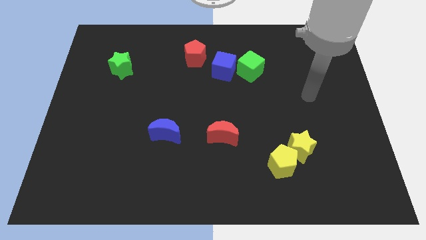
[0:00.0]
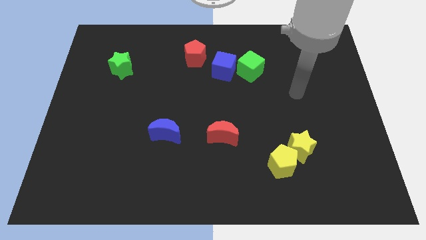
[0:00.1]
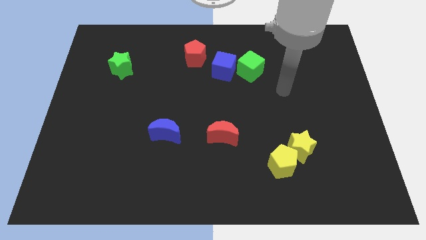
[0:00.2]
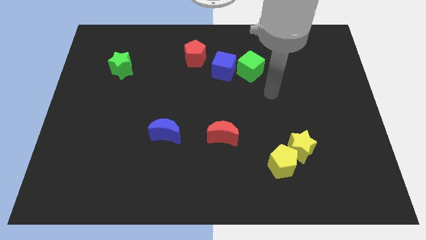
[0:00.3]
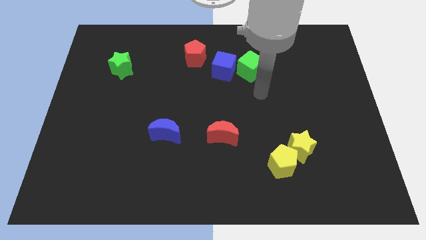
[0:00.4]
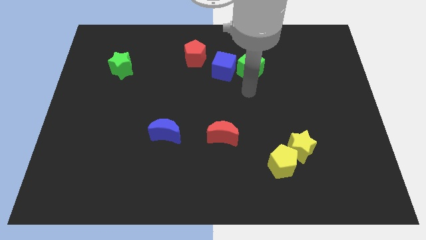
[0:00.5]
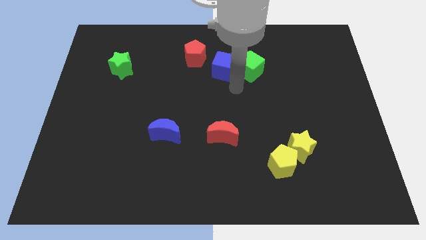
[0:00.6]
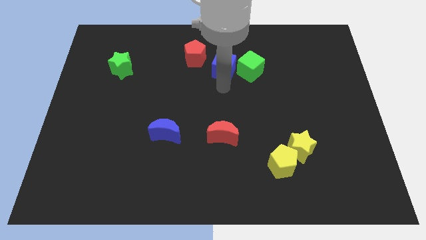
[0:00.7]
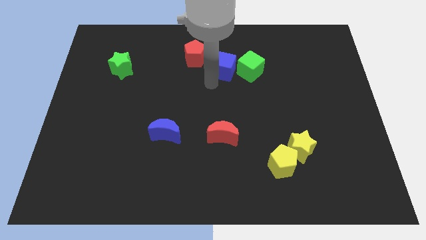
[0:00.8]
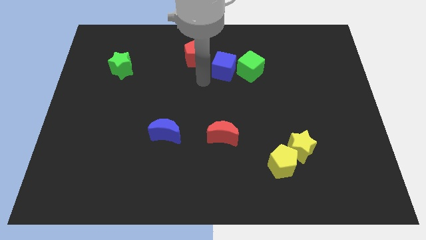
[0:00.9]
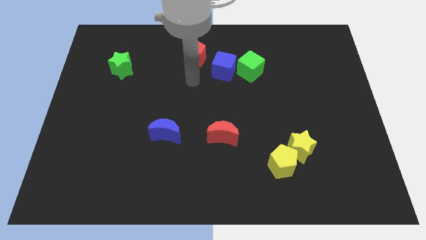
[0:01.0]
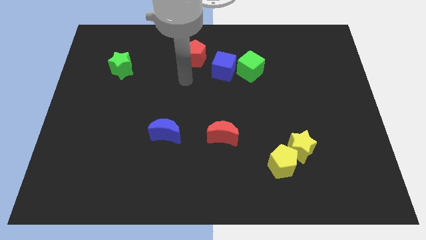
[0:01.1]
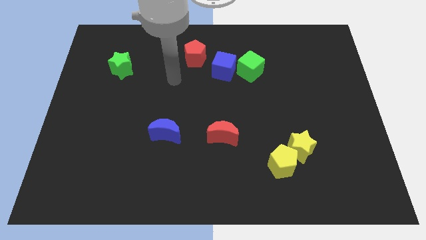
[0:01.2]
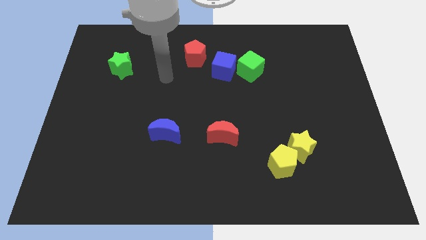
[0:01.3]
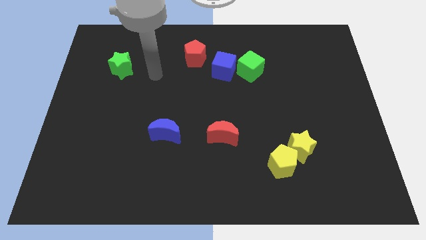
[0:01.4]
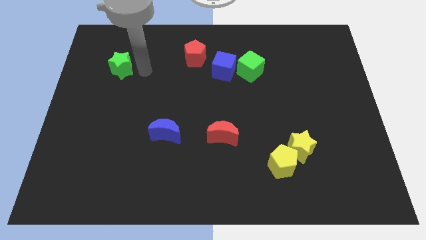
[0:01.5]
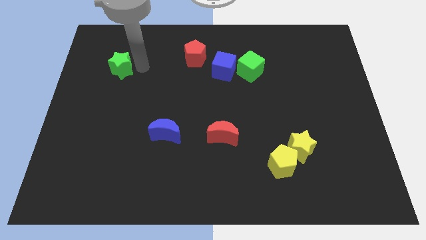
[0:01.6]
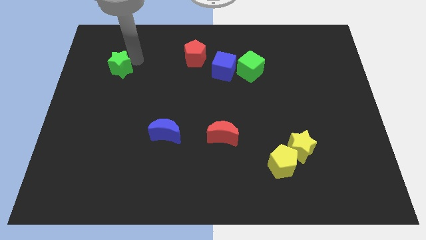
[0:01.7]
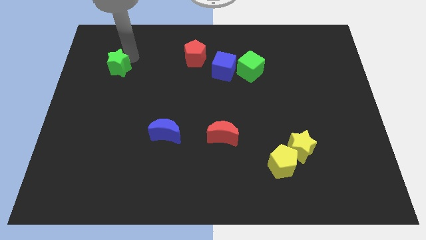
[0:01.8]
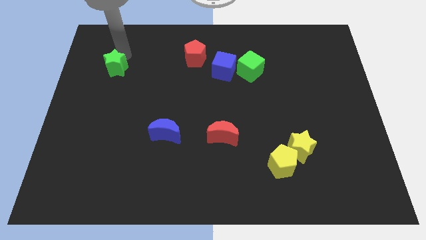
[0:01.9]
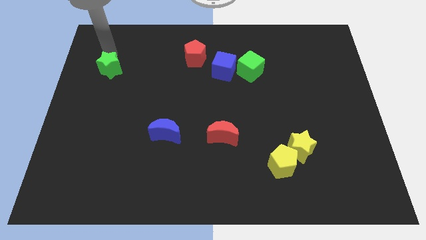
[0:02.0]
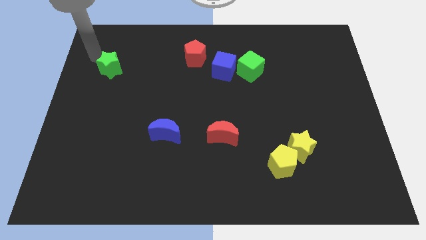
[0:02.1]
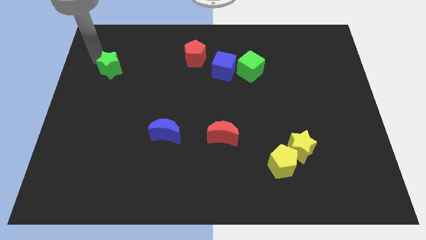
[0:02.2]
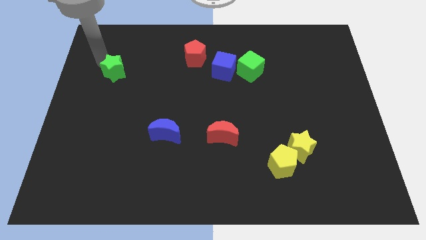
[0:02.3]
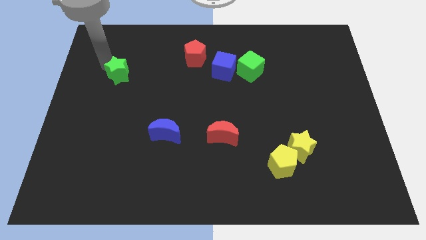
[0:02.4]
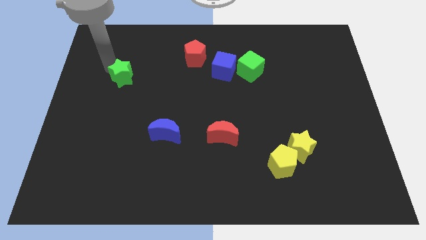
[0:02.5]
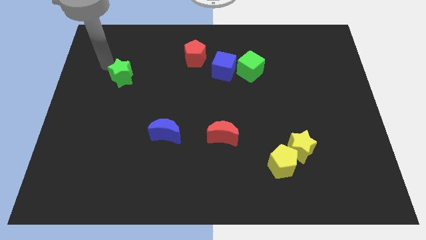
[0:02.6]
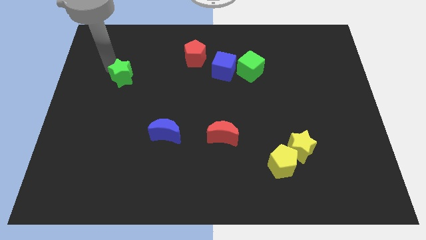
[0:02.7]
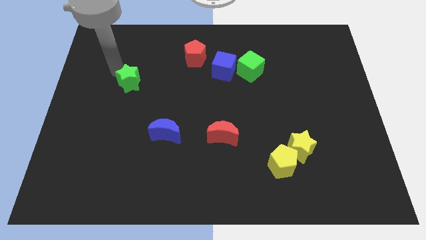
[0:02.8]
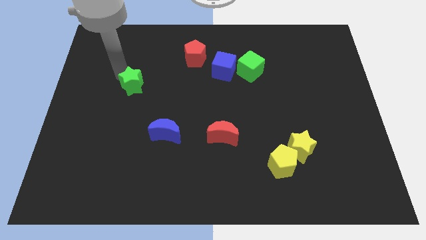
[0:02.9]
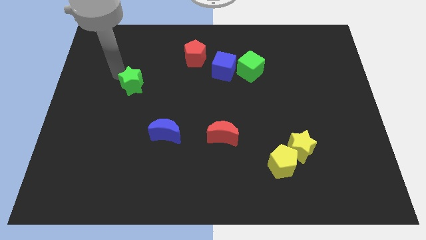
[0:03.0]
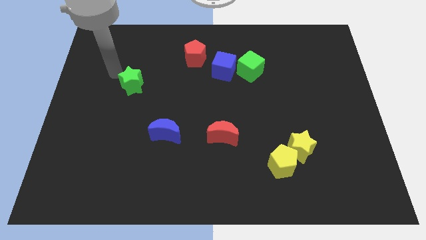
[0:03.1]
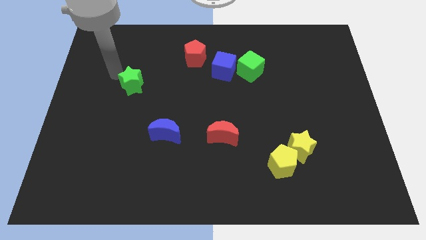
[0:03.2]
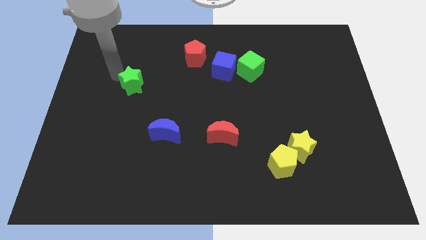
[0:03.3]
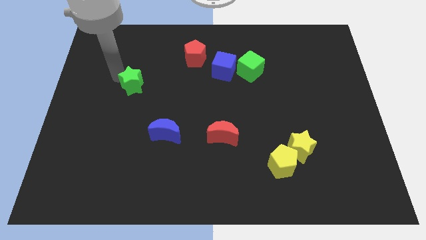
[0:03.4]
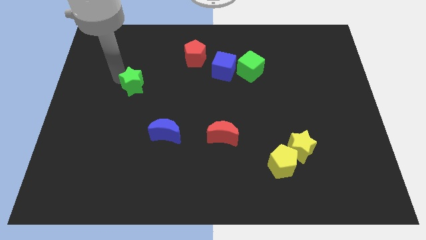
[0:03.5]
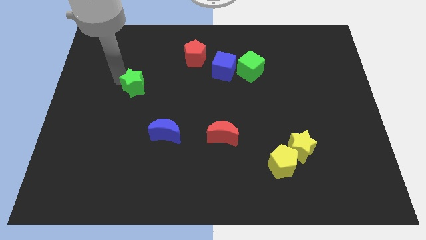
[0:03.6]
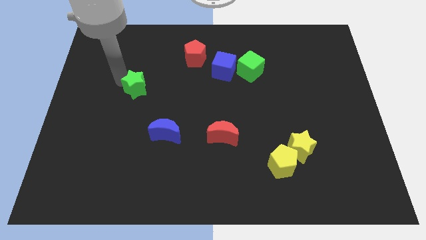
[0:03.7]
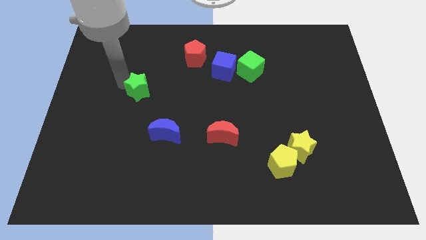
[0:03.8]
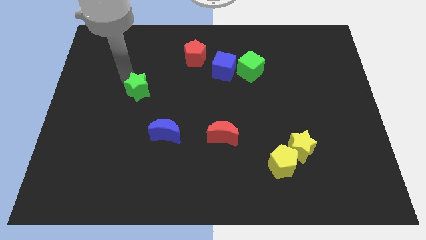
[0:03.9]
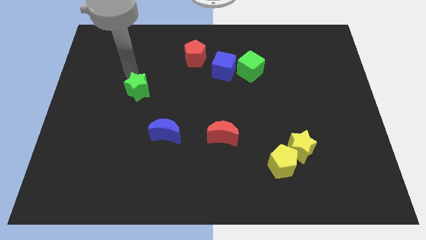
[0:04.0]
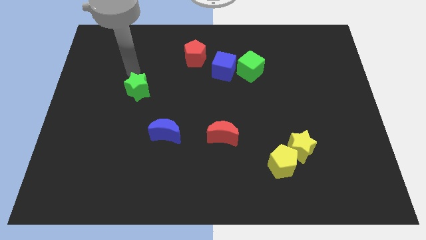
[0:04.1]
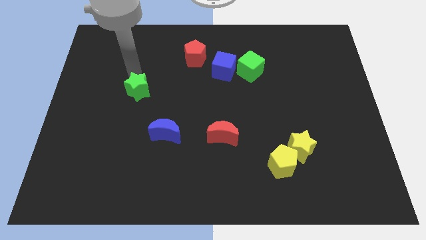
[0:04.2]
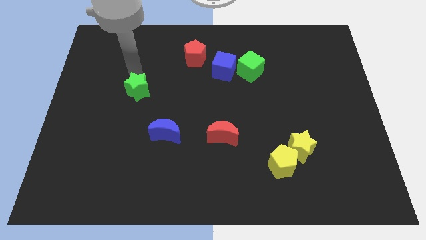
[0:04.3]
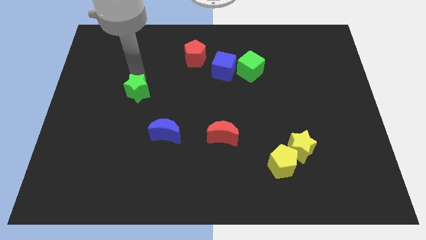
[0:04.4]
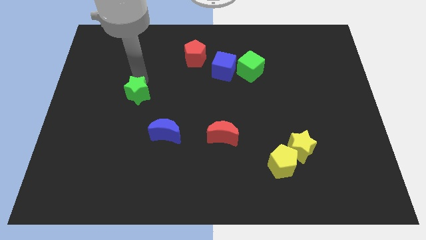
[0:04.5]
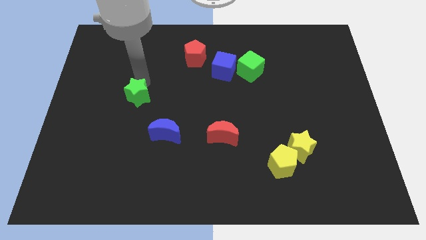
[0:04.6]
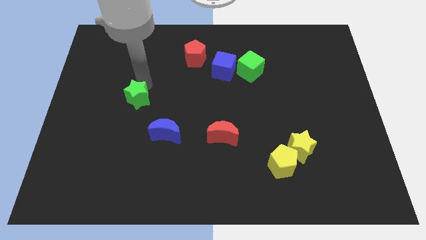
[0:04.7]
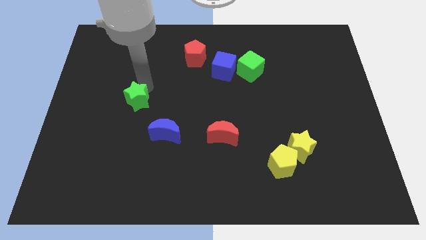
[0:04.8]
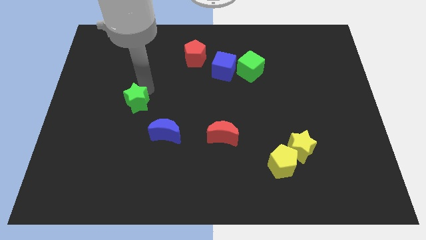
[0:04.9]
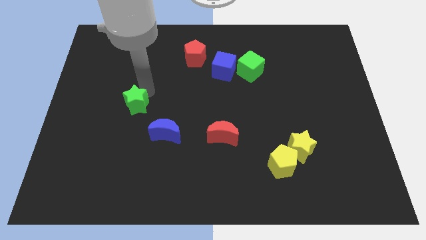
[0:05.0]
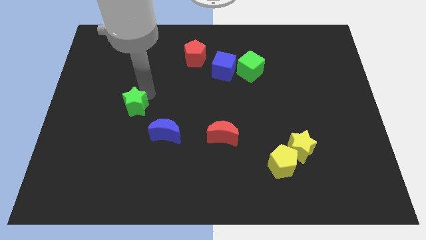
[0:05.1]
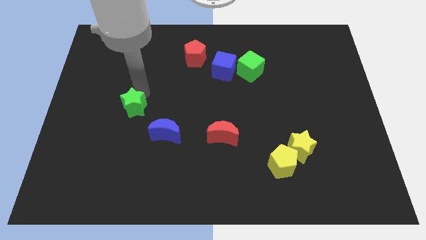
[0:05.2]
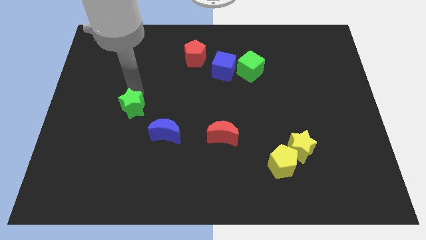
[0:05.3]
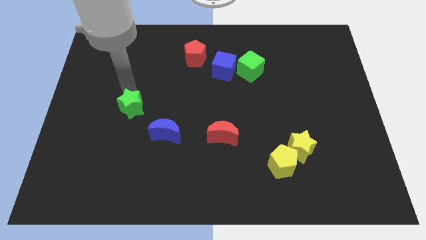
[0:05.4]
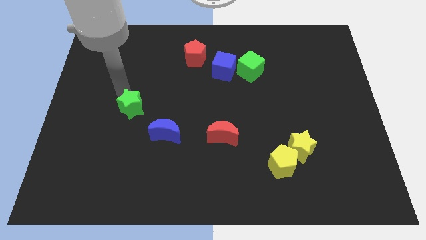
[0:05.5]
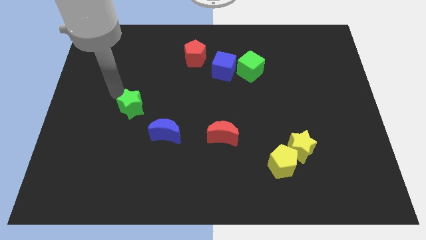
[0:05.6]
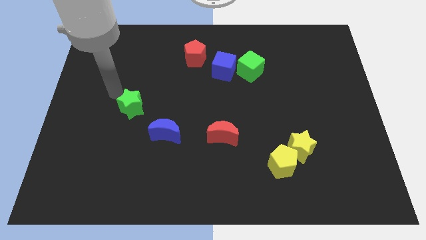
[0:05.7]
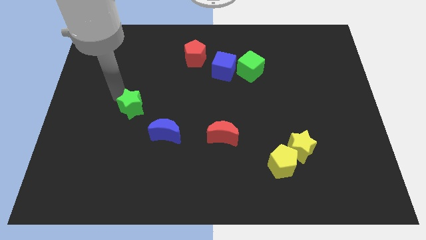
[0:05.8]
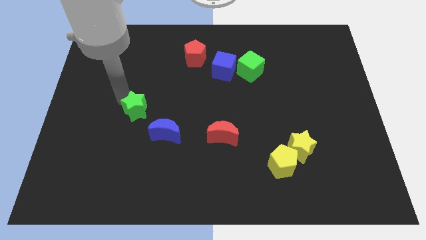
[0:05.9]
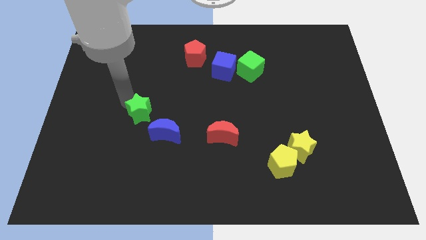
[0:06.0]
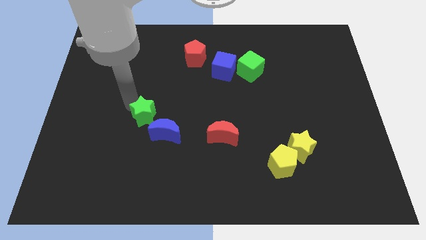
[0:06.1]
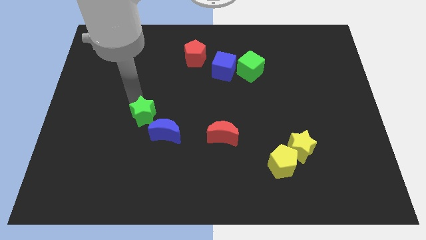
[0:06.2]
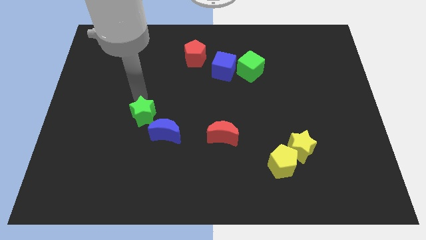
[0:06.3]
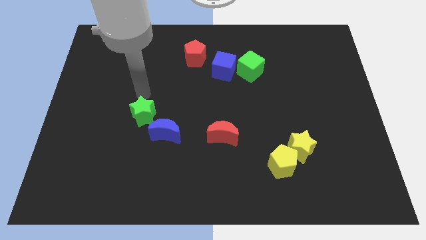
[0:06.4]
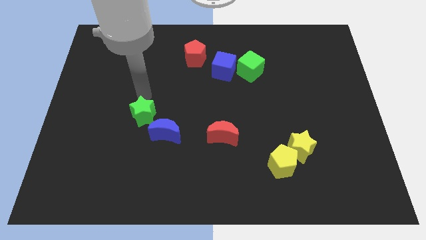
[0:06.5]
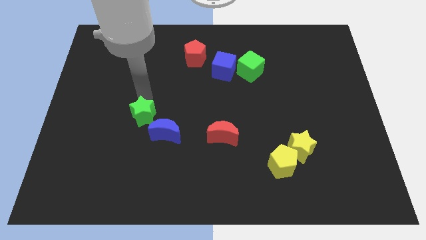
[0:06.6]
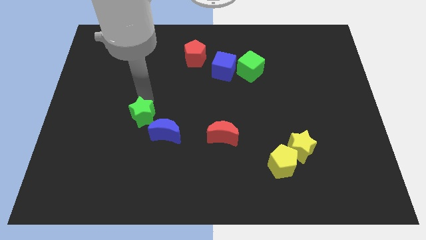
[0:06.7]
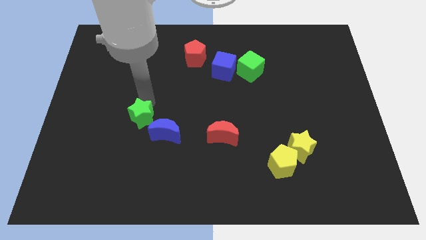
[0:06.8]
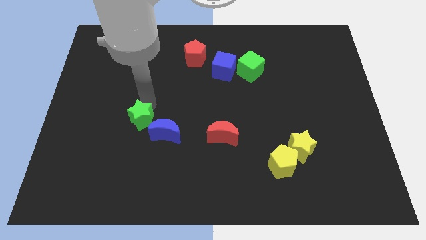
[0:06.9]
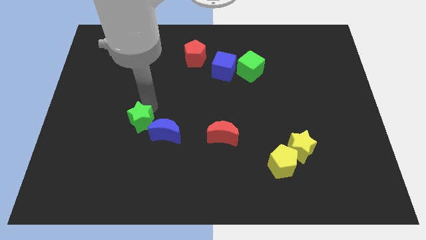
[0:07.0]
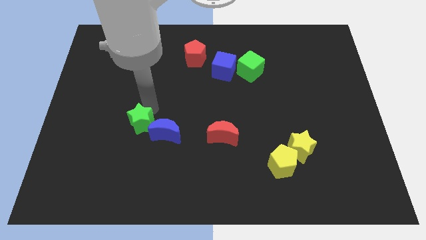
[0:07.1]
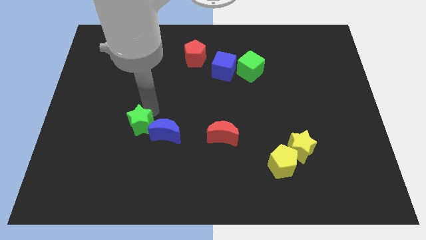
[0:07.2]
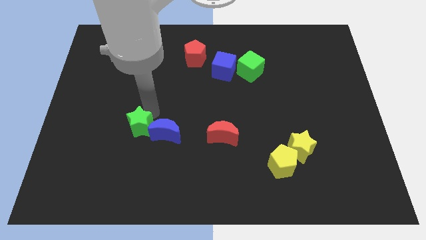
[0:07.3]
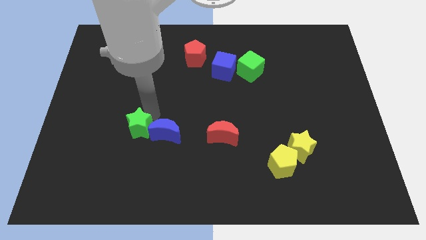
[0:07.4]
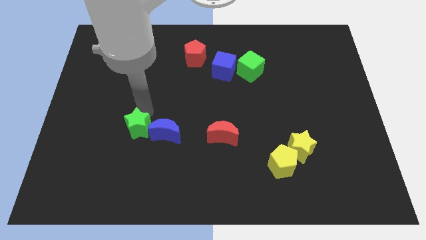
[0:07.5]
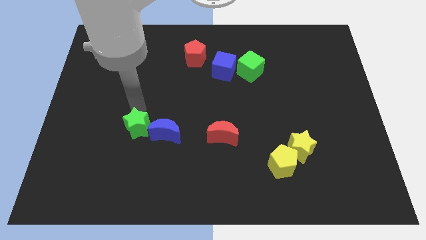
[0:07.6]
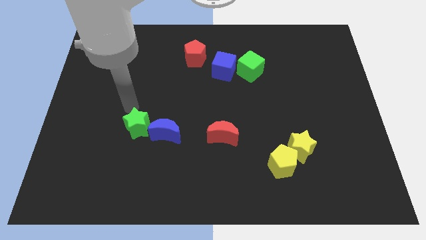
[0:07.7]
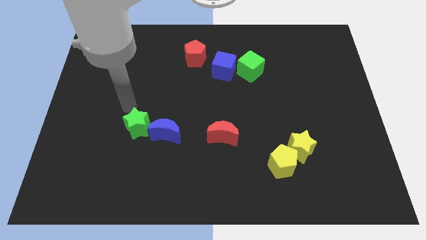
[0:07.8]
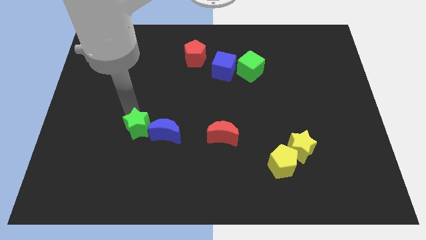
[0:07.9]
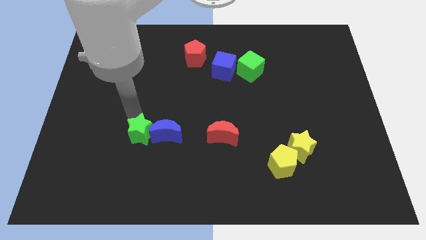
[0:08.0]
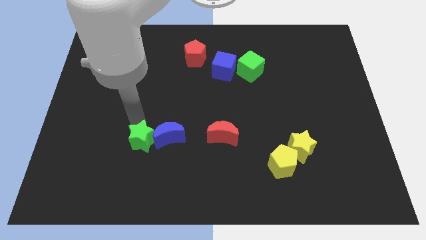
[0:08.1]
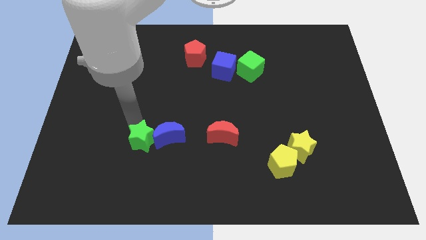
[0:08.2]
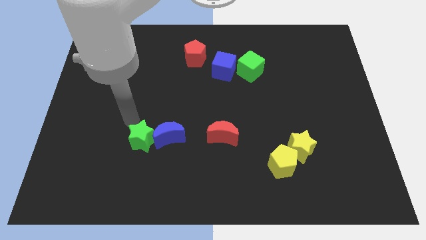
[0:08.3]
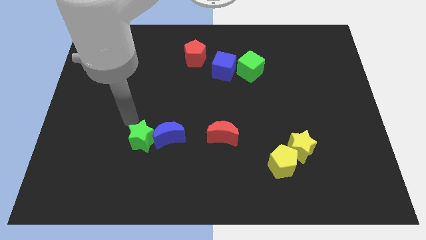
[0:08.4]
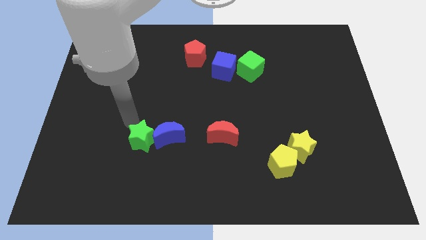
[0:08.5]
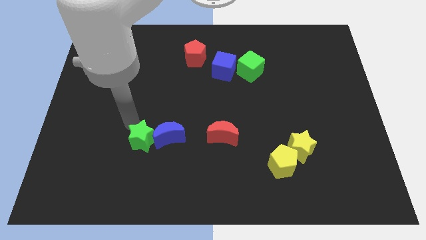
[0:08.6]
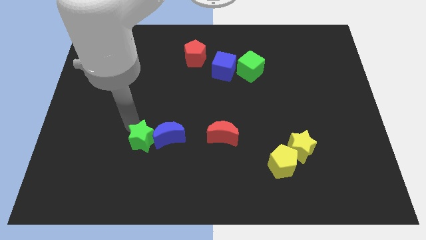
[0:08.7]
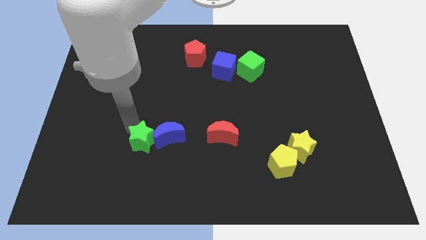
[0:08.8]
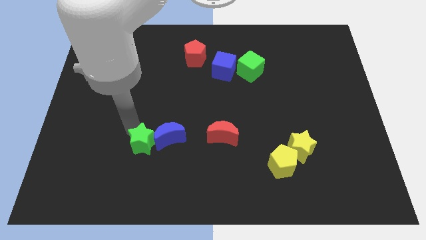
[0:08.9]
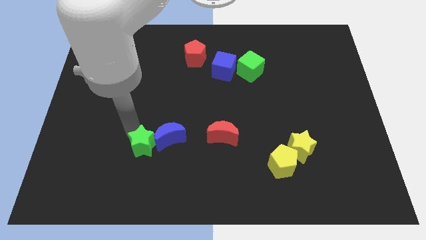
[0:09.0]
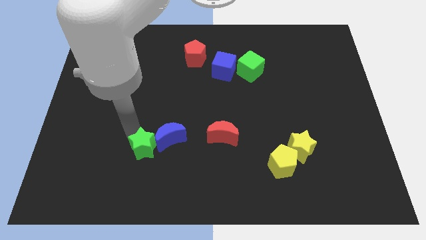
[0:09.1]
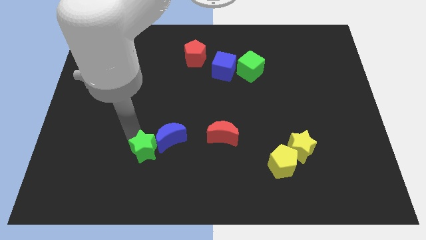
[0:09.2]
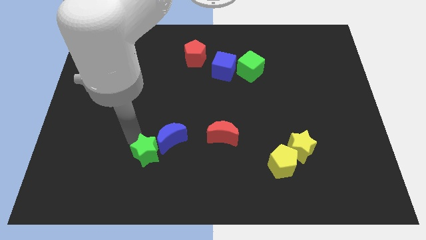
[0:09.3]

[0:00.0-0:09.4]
slide the green star below the blue moon
